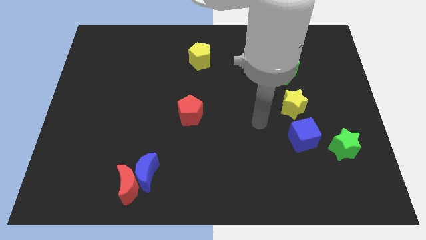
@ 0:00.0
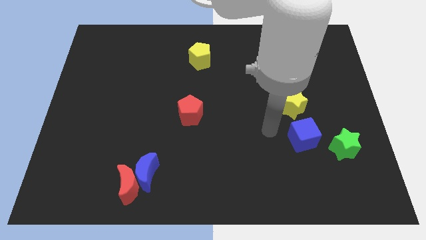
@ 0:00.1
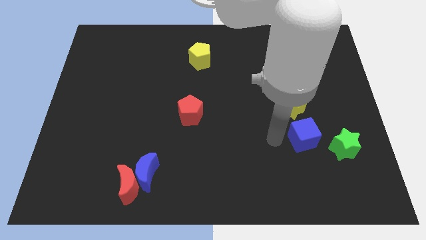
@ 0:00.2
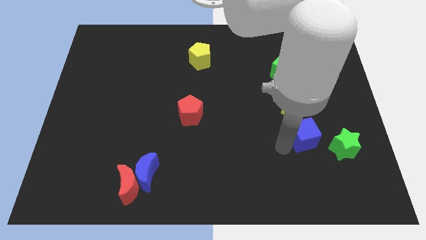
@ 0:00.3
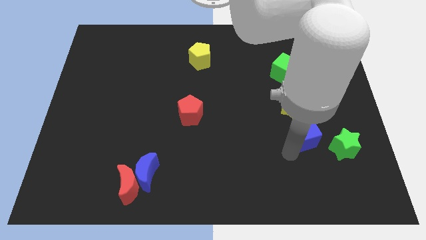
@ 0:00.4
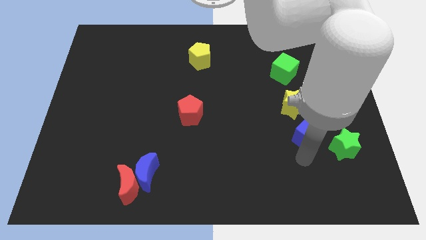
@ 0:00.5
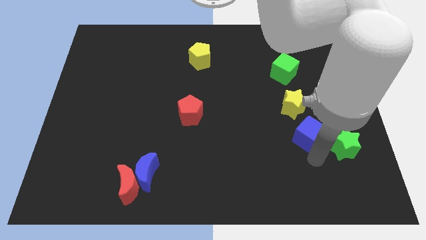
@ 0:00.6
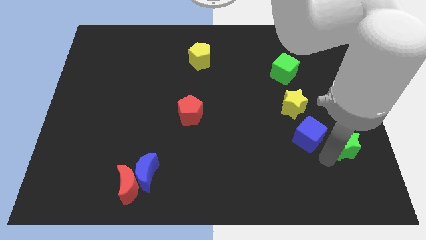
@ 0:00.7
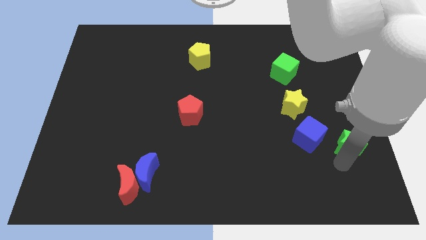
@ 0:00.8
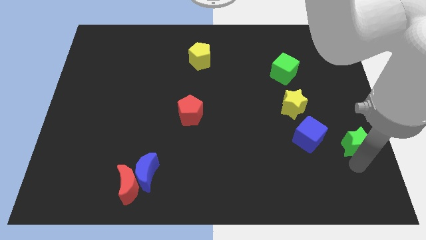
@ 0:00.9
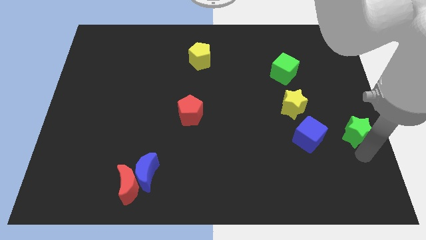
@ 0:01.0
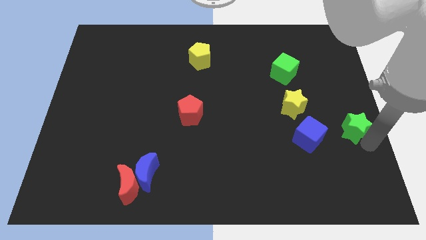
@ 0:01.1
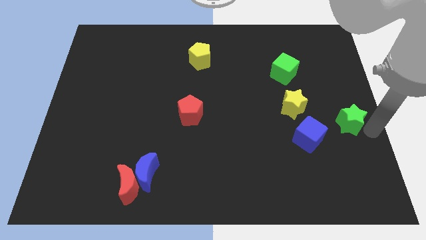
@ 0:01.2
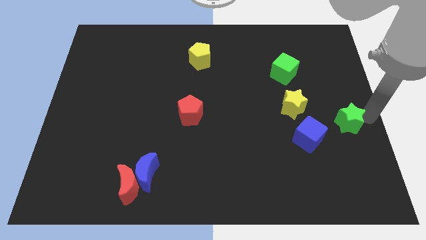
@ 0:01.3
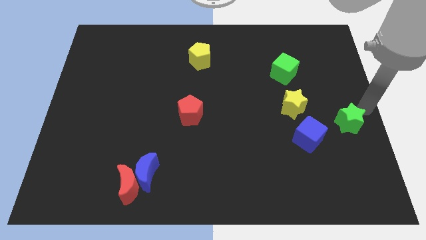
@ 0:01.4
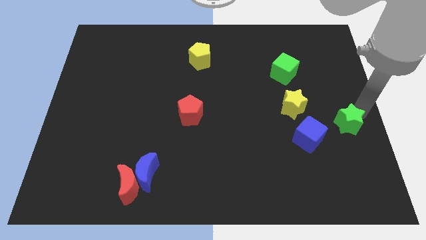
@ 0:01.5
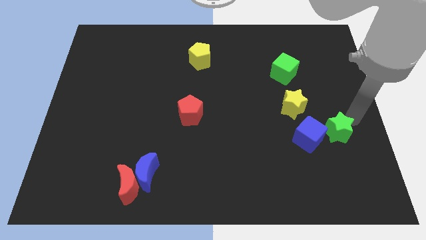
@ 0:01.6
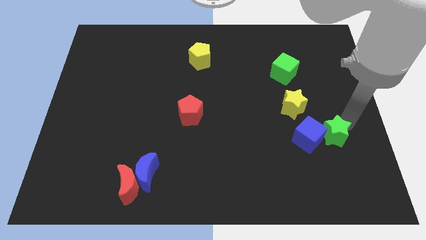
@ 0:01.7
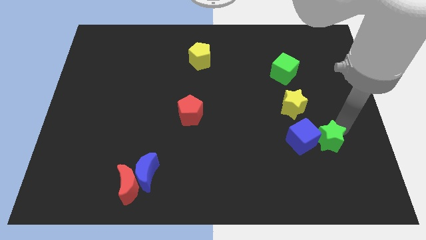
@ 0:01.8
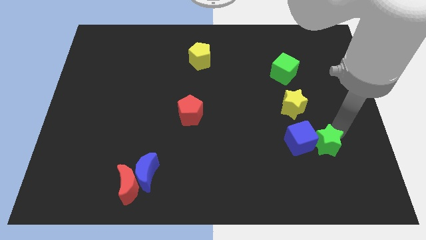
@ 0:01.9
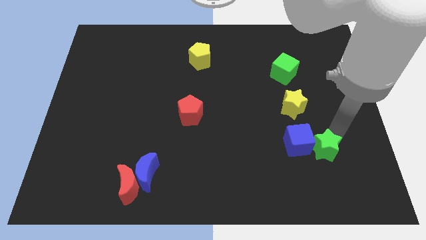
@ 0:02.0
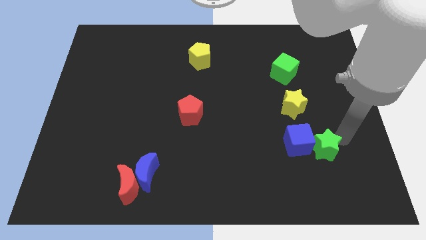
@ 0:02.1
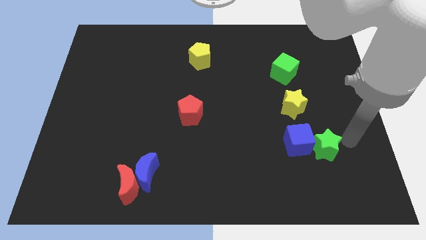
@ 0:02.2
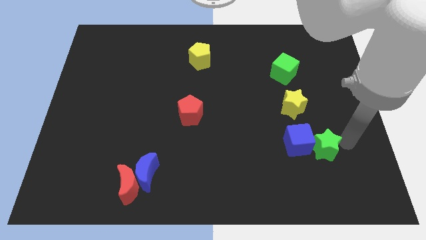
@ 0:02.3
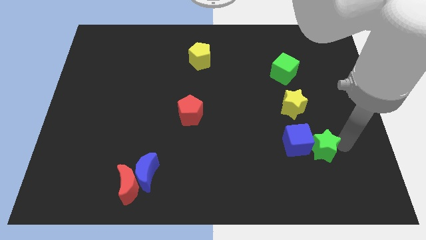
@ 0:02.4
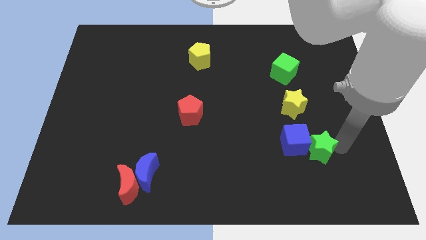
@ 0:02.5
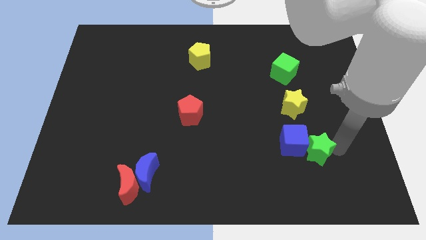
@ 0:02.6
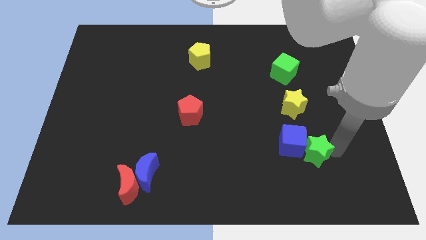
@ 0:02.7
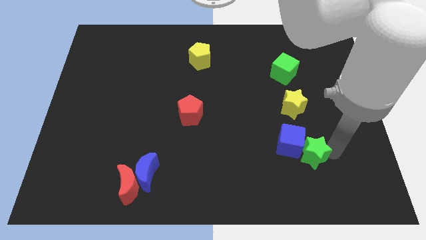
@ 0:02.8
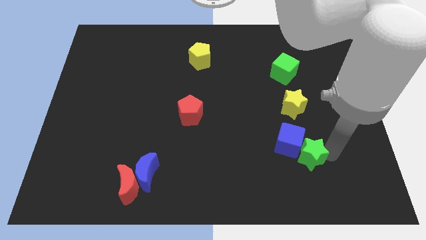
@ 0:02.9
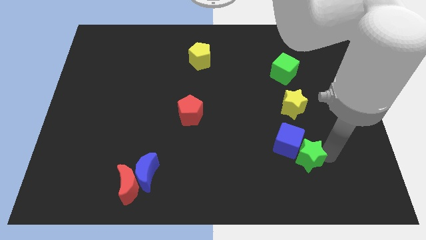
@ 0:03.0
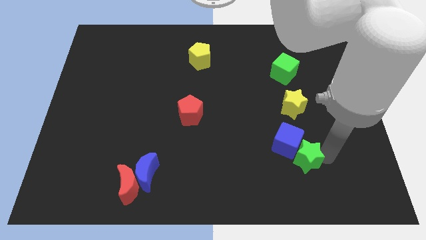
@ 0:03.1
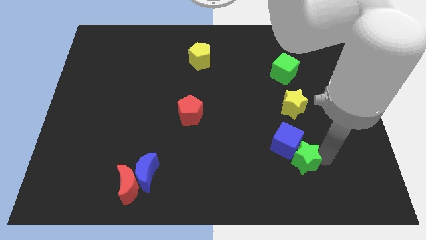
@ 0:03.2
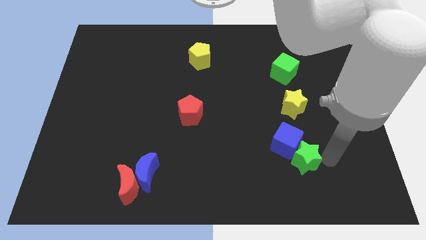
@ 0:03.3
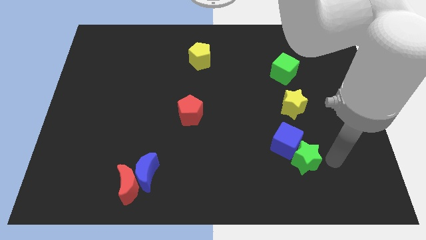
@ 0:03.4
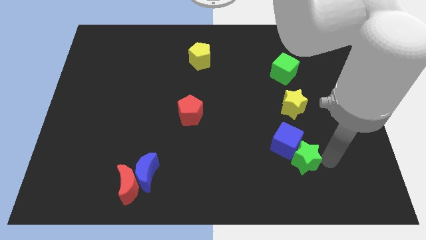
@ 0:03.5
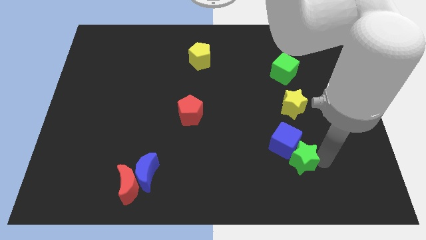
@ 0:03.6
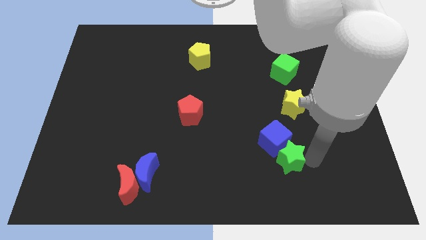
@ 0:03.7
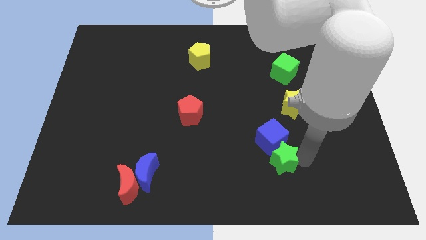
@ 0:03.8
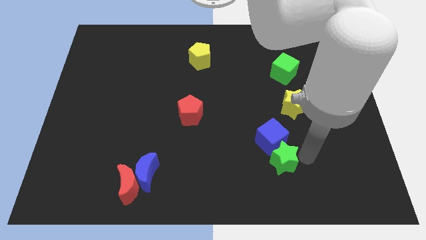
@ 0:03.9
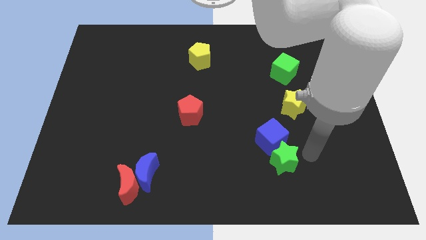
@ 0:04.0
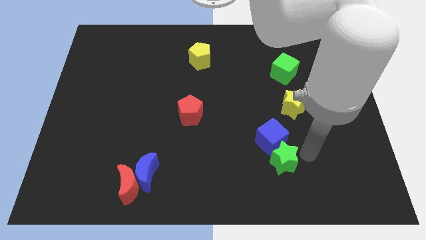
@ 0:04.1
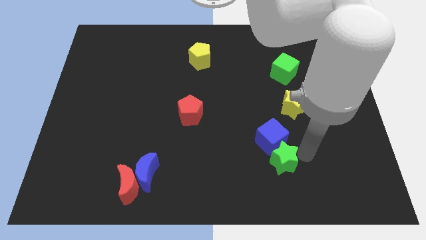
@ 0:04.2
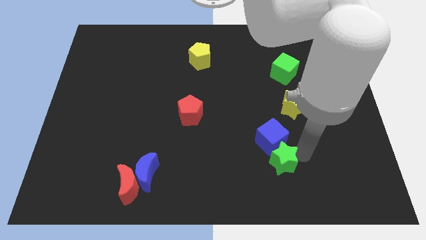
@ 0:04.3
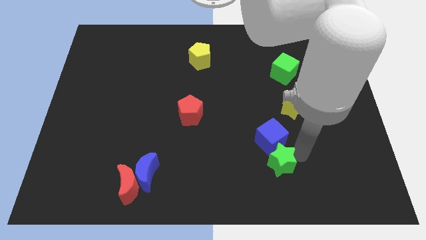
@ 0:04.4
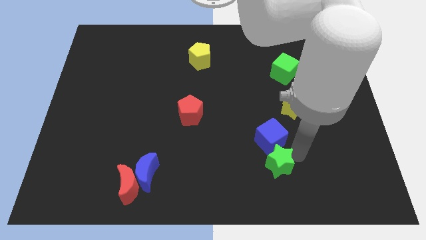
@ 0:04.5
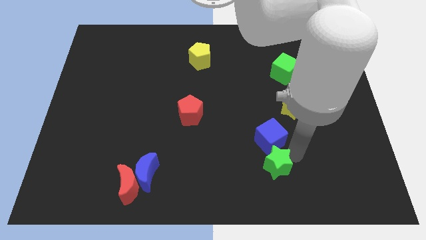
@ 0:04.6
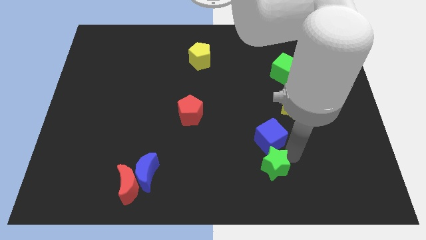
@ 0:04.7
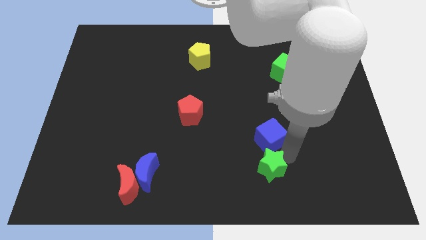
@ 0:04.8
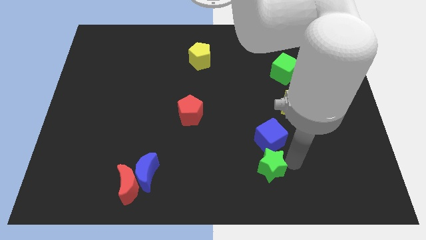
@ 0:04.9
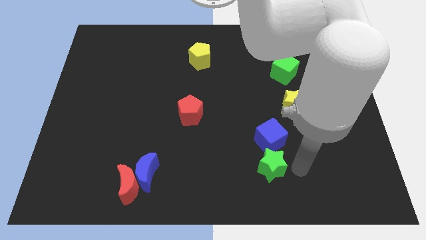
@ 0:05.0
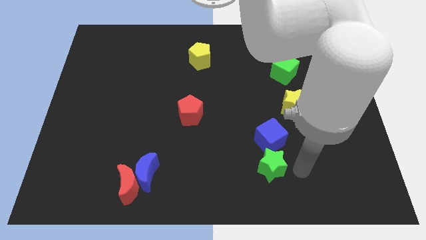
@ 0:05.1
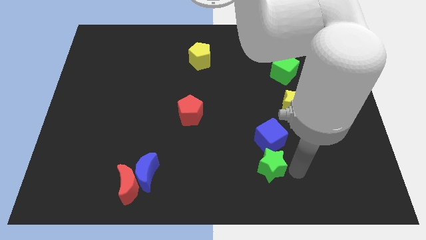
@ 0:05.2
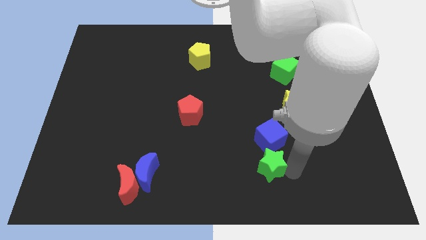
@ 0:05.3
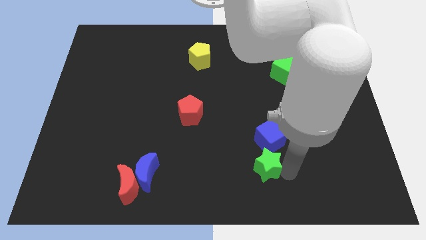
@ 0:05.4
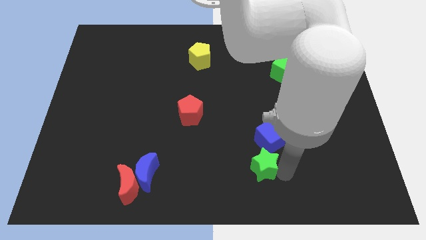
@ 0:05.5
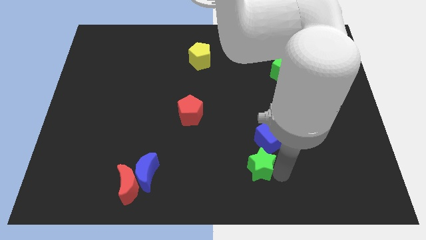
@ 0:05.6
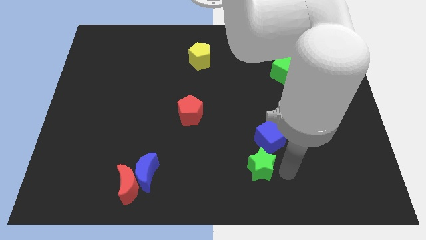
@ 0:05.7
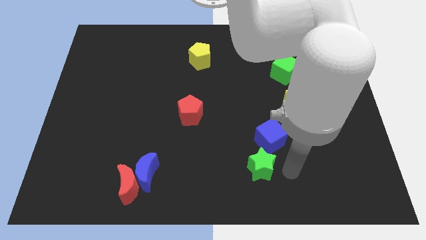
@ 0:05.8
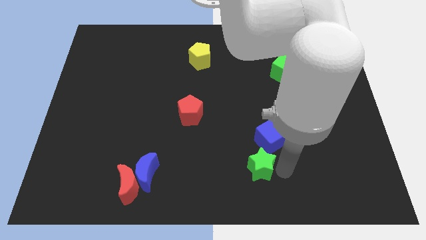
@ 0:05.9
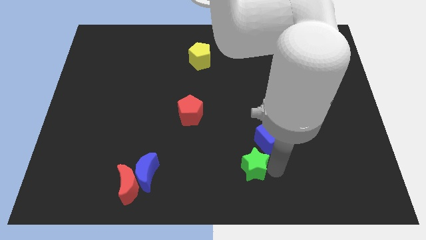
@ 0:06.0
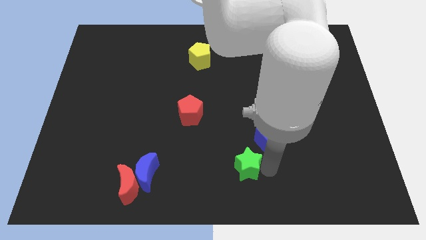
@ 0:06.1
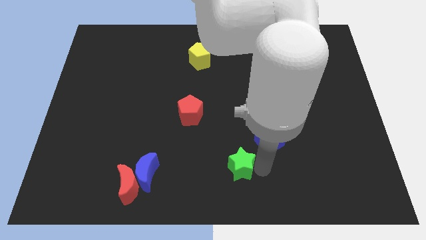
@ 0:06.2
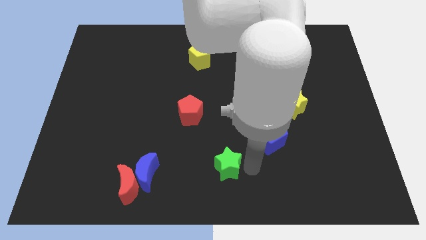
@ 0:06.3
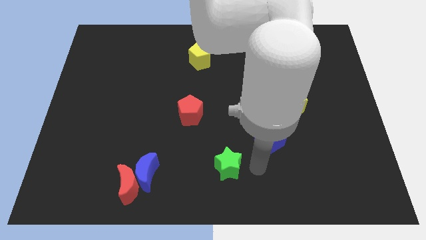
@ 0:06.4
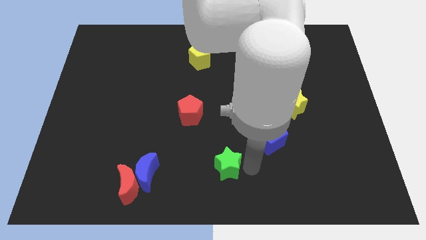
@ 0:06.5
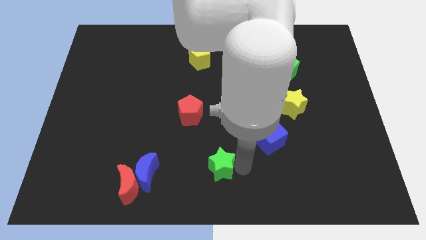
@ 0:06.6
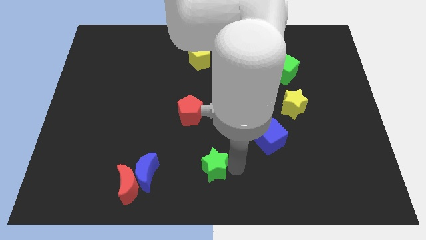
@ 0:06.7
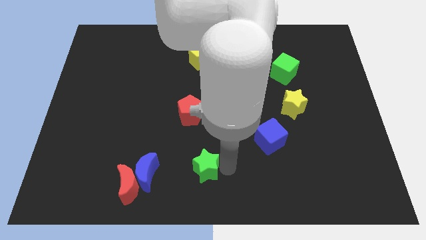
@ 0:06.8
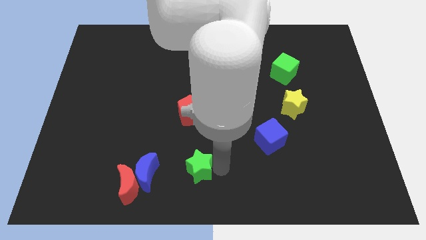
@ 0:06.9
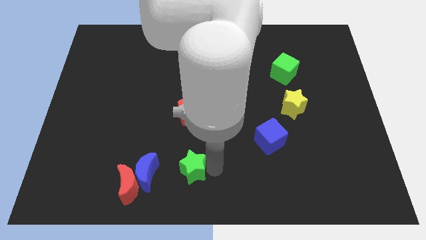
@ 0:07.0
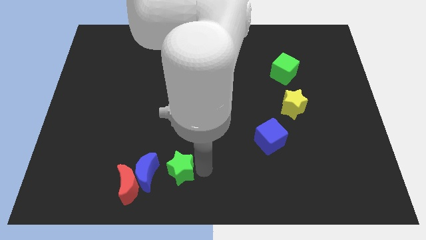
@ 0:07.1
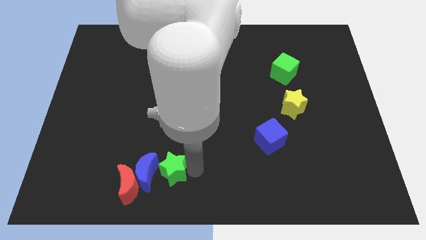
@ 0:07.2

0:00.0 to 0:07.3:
put the green star next to the blue moon

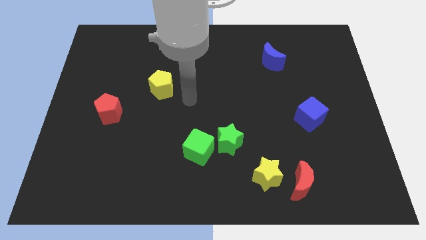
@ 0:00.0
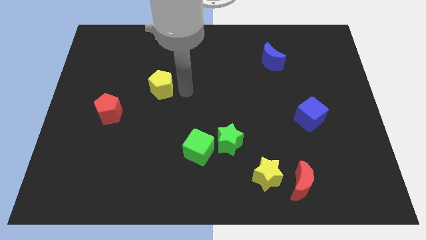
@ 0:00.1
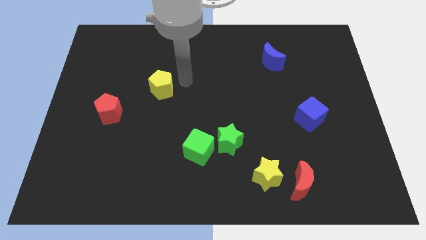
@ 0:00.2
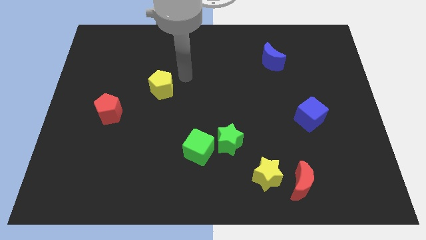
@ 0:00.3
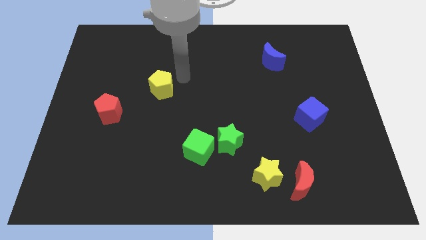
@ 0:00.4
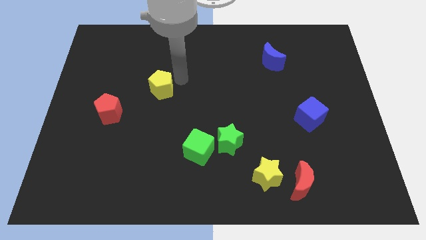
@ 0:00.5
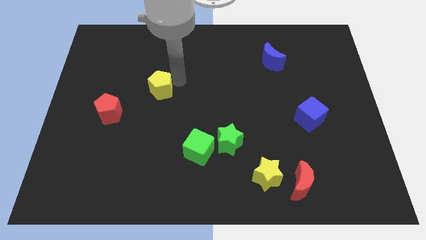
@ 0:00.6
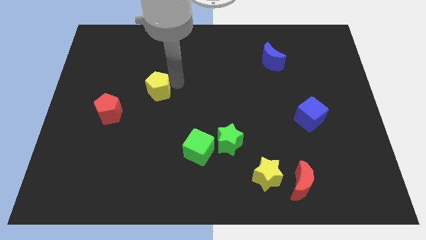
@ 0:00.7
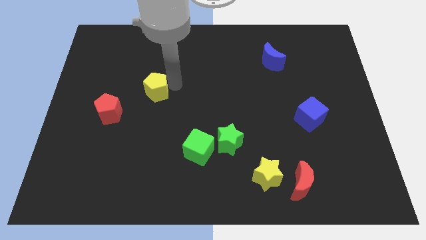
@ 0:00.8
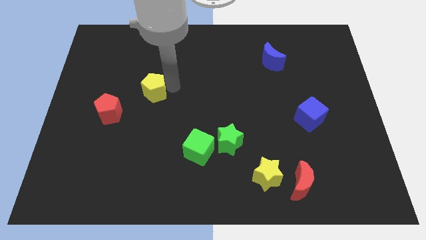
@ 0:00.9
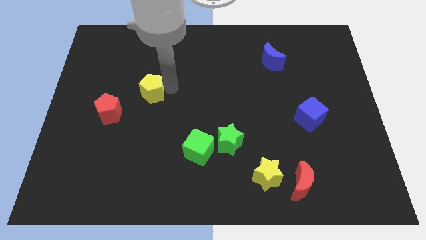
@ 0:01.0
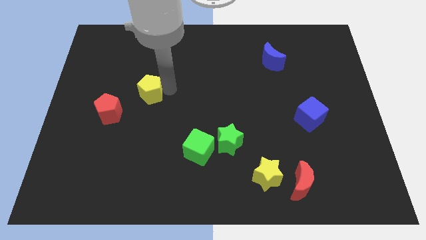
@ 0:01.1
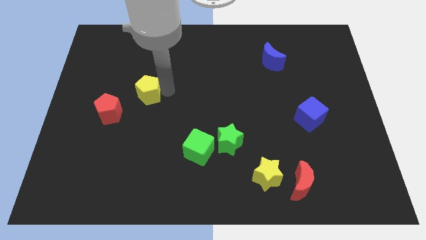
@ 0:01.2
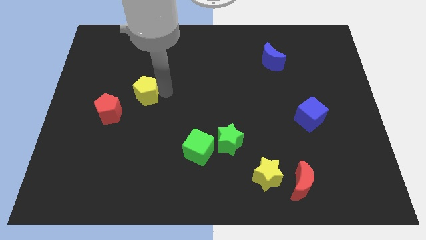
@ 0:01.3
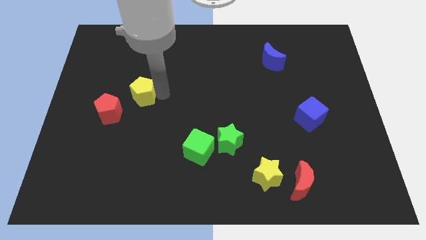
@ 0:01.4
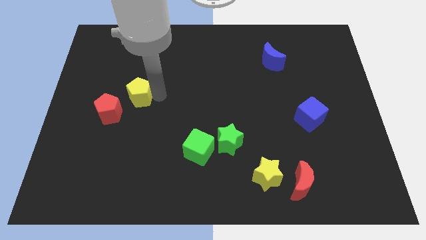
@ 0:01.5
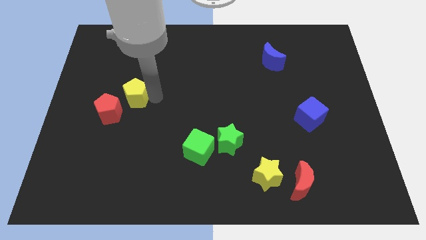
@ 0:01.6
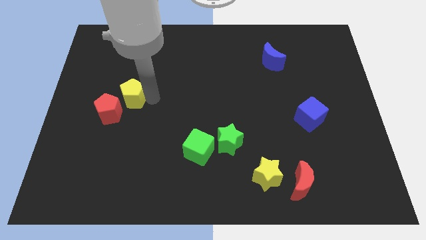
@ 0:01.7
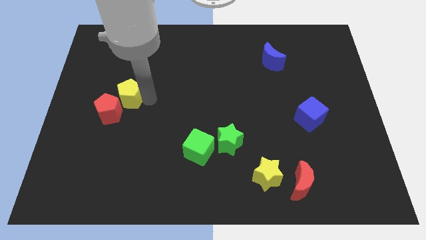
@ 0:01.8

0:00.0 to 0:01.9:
slide the yellow pentagon close to the red pentagon
